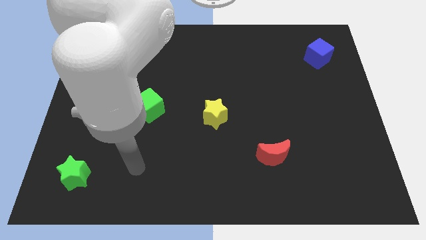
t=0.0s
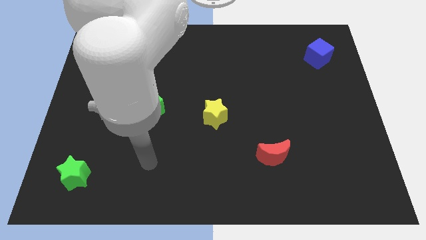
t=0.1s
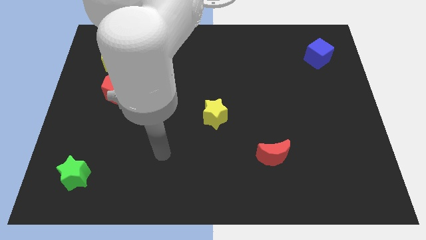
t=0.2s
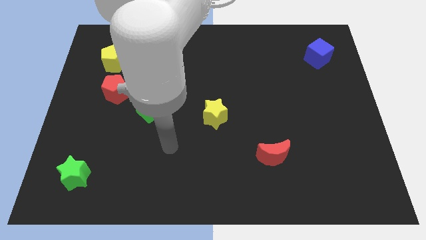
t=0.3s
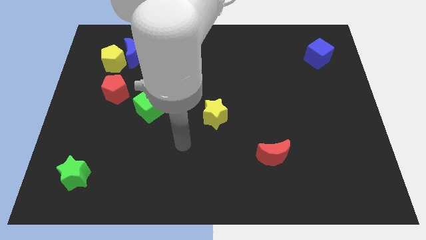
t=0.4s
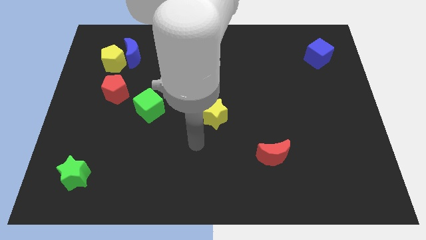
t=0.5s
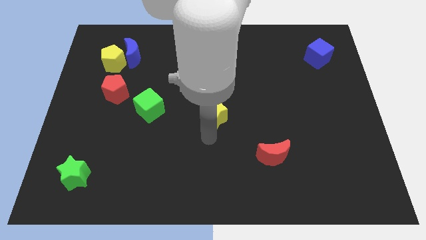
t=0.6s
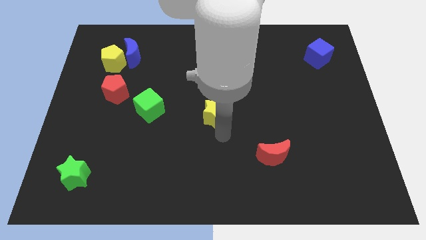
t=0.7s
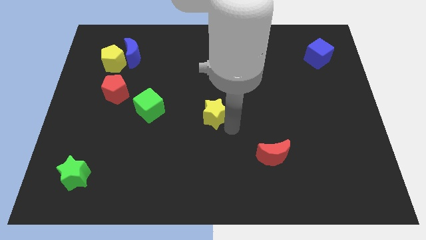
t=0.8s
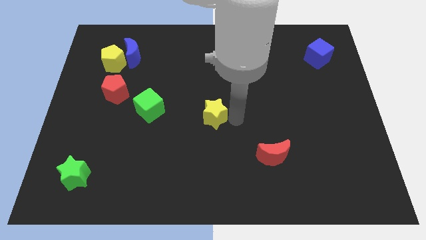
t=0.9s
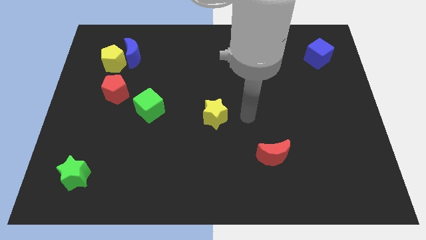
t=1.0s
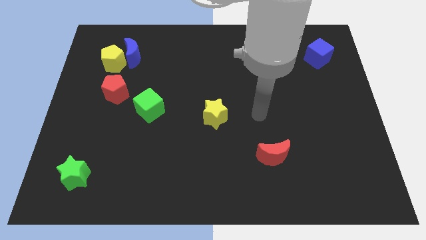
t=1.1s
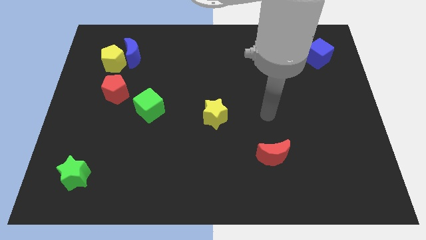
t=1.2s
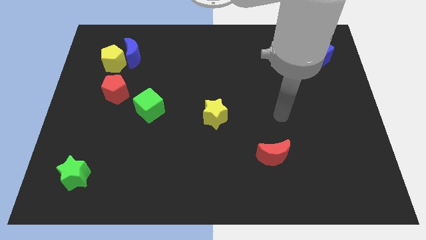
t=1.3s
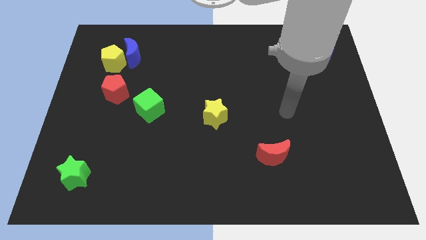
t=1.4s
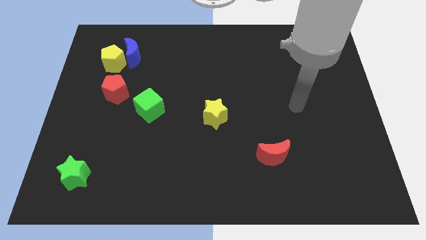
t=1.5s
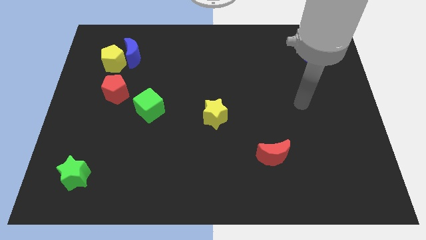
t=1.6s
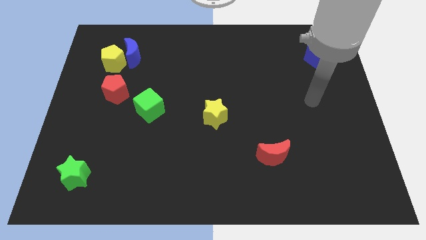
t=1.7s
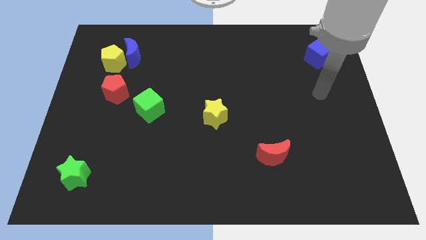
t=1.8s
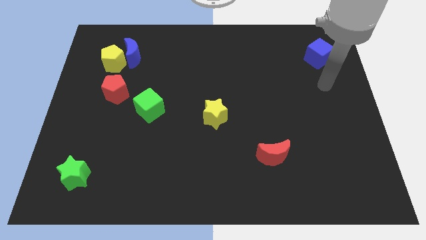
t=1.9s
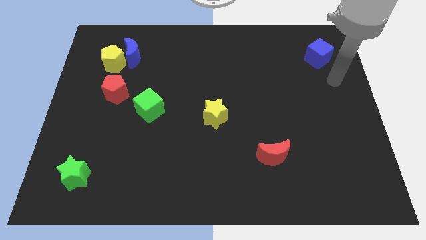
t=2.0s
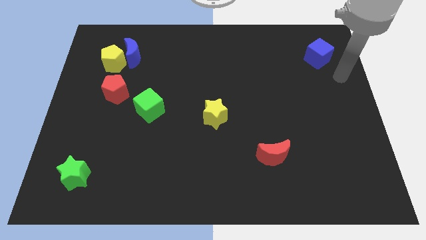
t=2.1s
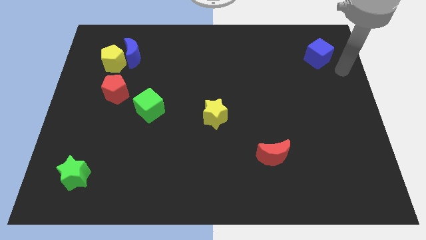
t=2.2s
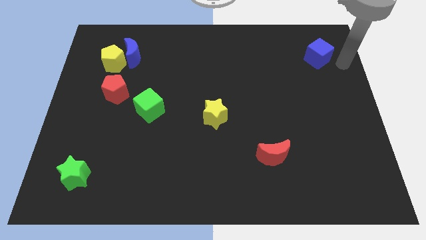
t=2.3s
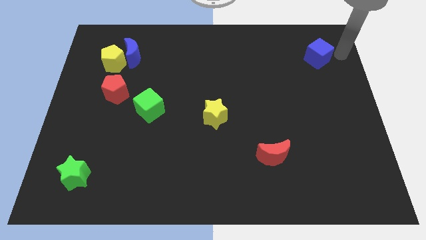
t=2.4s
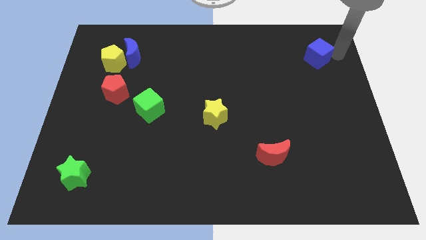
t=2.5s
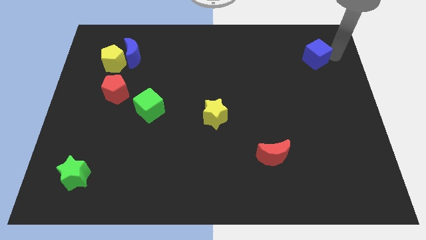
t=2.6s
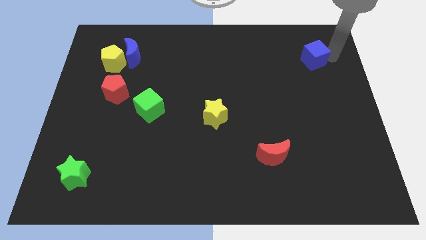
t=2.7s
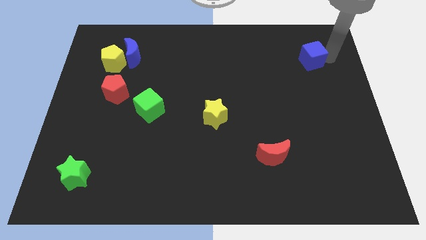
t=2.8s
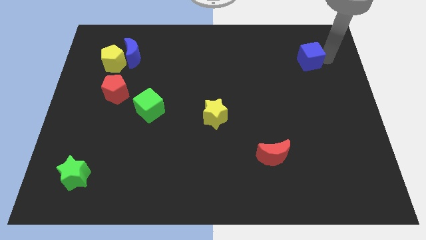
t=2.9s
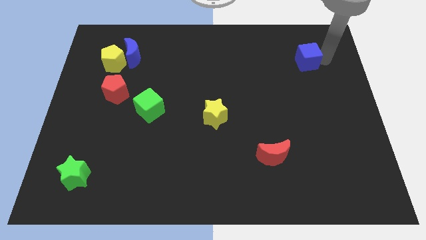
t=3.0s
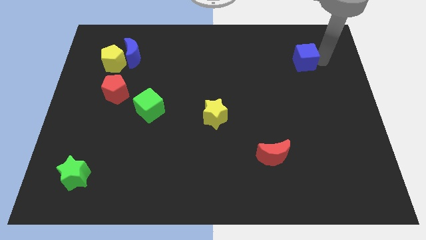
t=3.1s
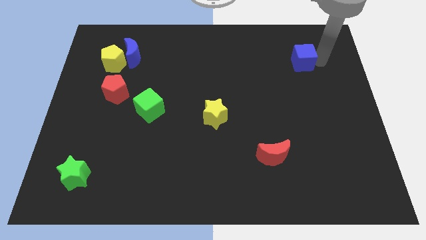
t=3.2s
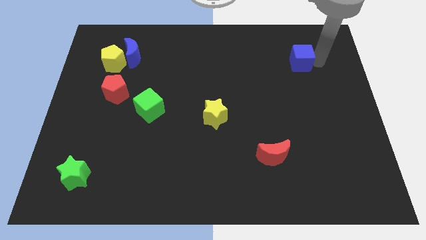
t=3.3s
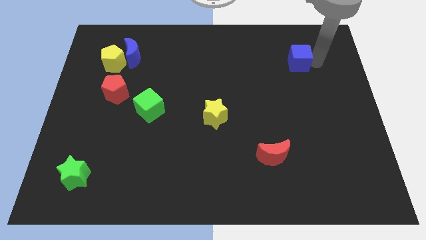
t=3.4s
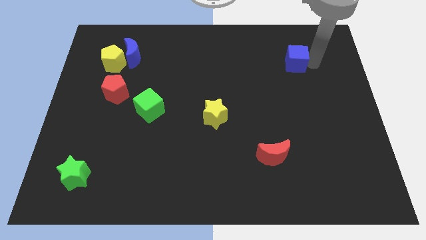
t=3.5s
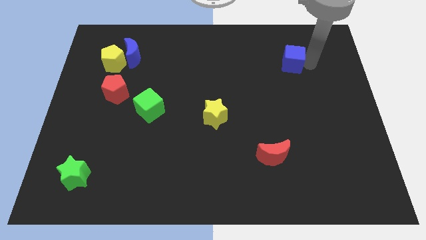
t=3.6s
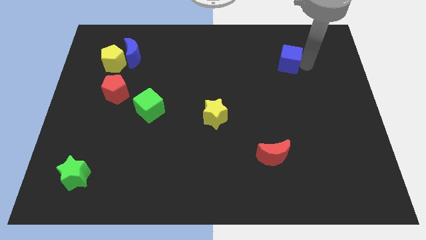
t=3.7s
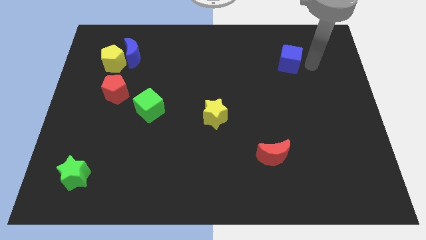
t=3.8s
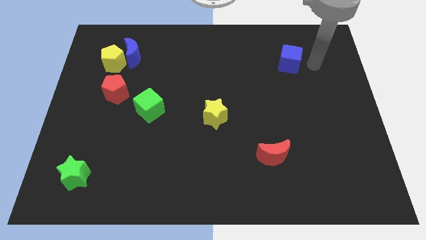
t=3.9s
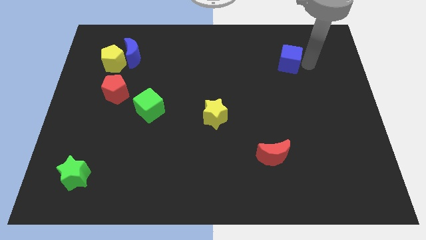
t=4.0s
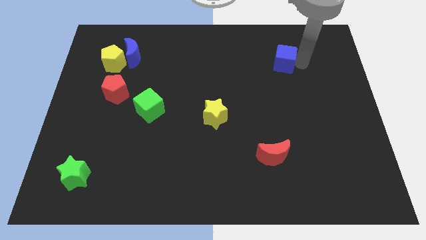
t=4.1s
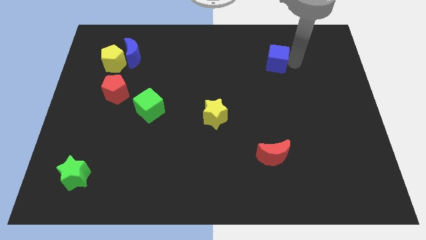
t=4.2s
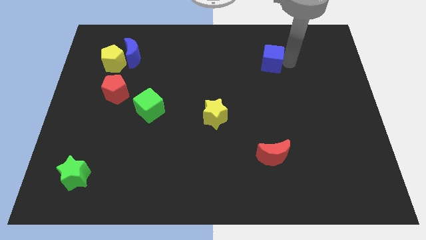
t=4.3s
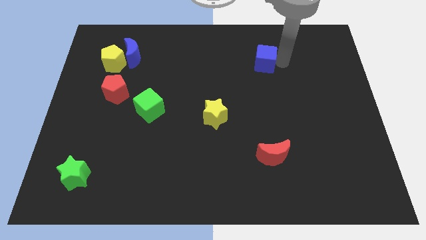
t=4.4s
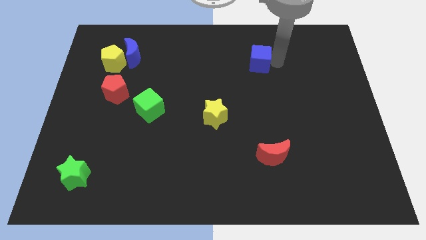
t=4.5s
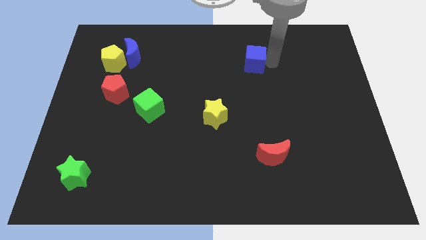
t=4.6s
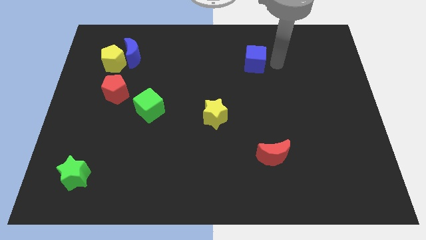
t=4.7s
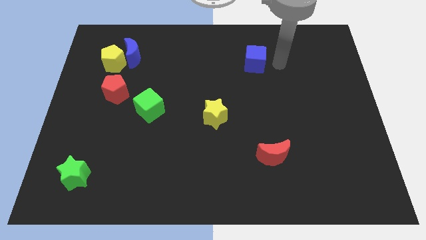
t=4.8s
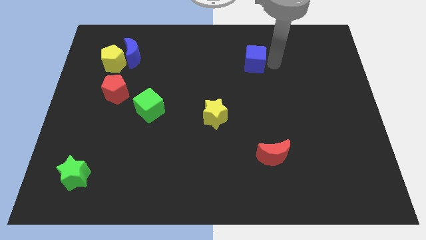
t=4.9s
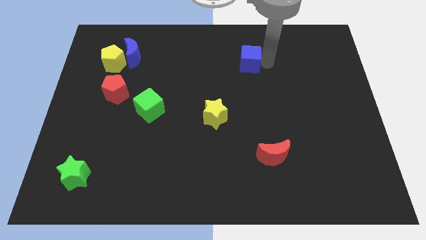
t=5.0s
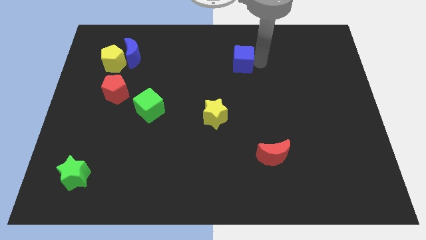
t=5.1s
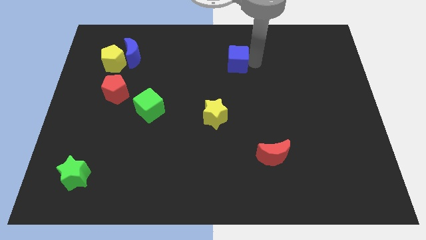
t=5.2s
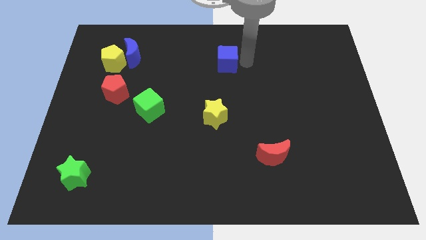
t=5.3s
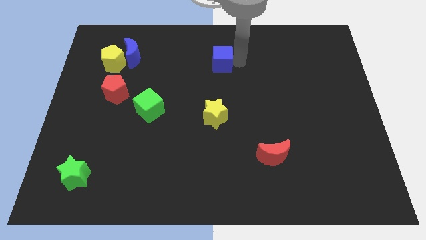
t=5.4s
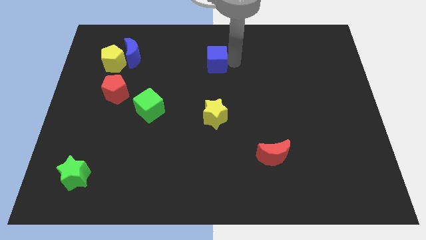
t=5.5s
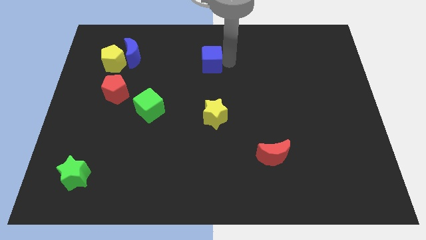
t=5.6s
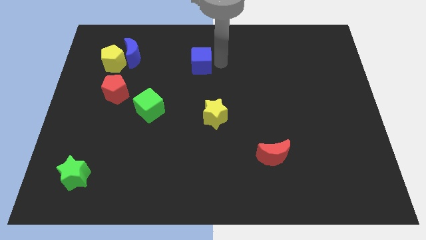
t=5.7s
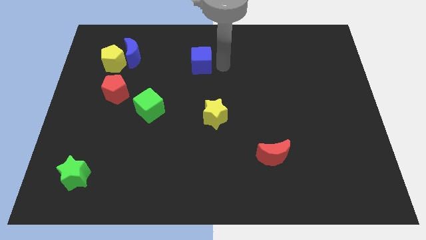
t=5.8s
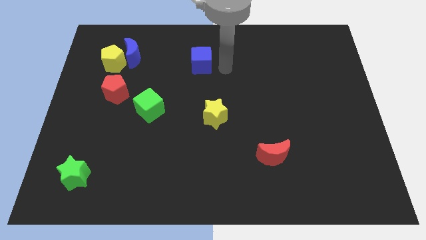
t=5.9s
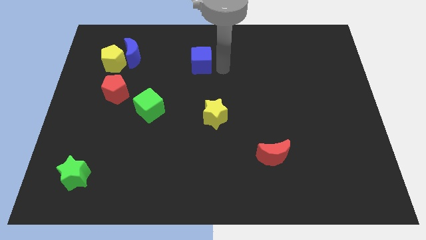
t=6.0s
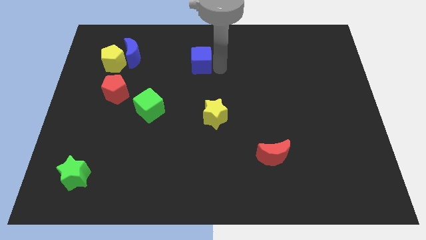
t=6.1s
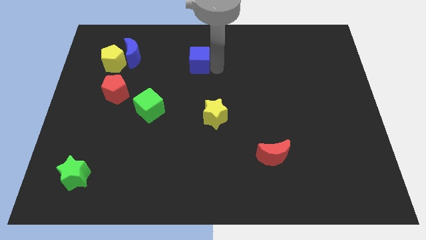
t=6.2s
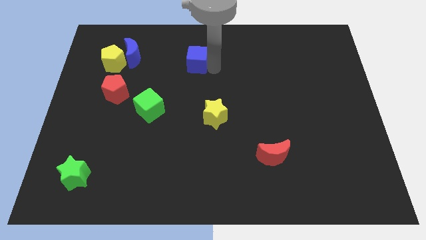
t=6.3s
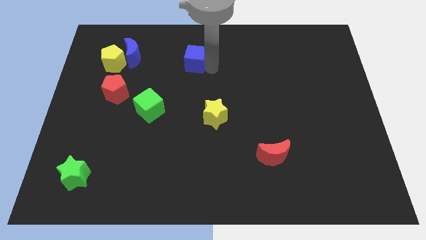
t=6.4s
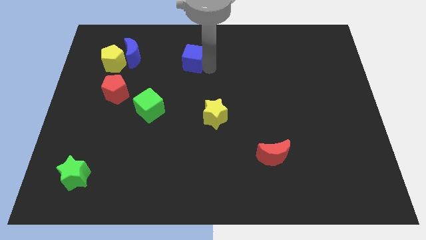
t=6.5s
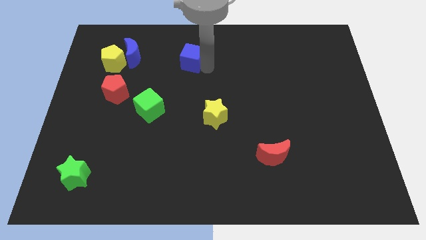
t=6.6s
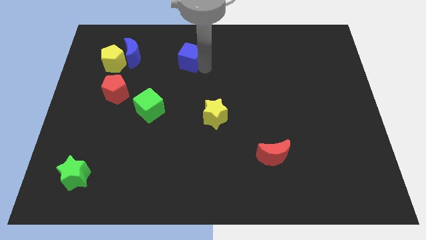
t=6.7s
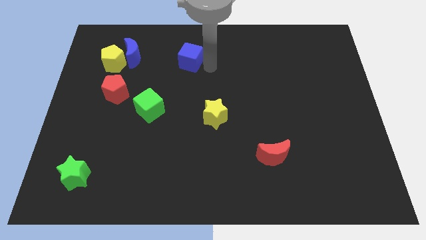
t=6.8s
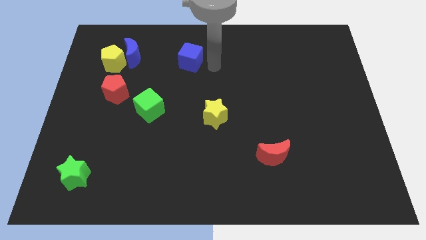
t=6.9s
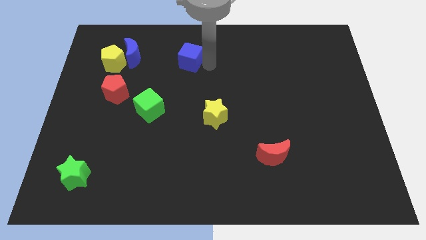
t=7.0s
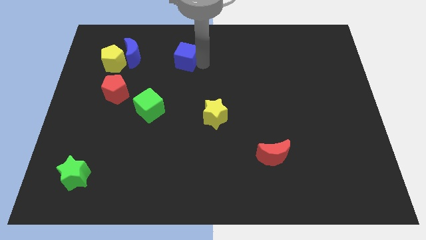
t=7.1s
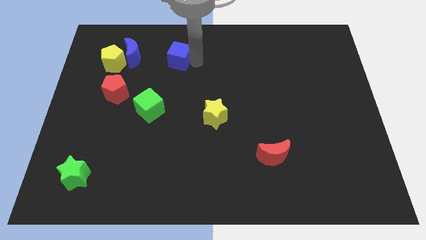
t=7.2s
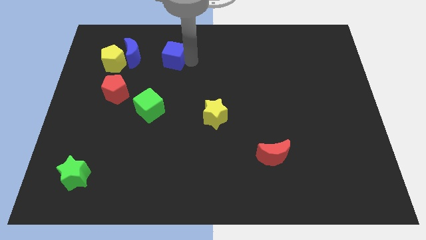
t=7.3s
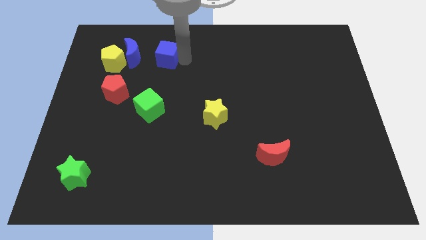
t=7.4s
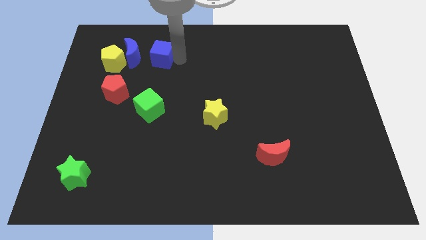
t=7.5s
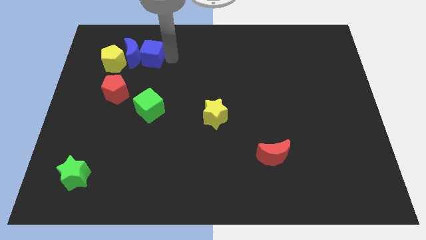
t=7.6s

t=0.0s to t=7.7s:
slide the blue cube towards the blue moon
